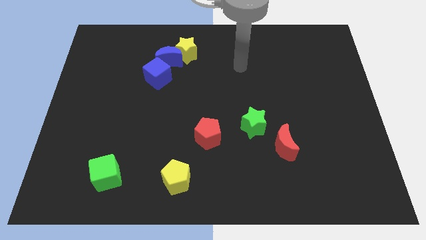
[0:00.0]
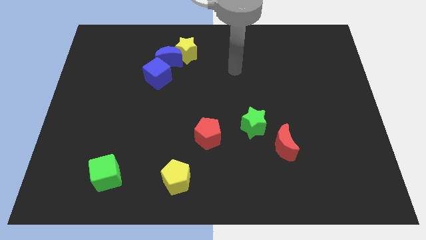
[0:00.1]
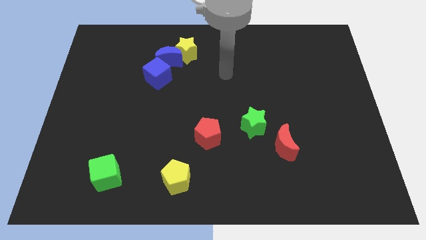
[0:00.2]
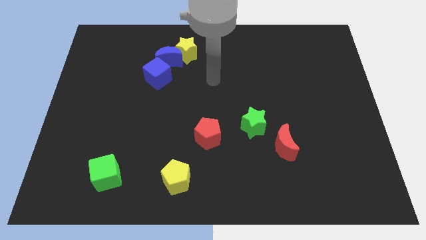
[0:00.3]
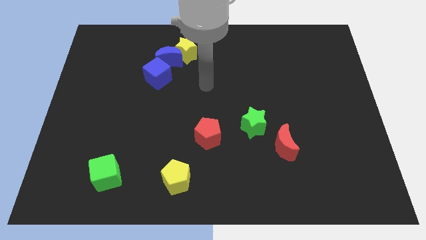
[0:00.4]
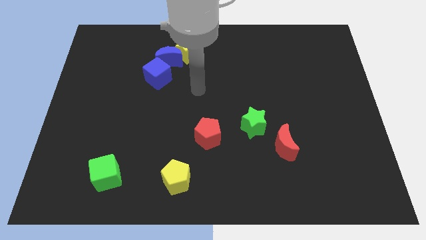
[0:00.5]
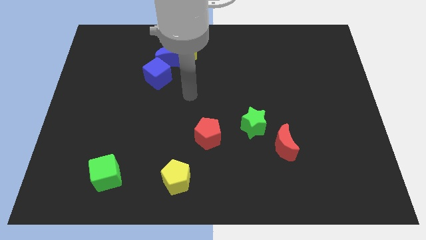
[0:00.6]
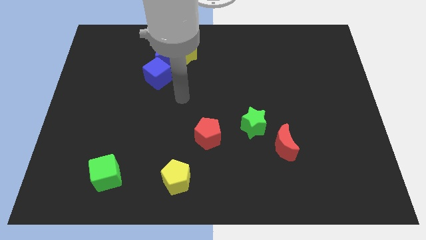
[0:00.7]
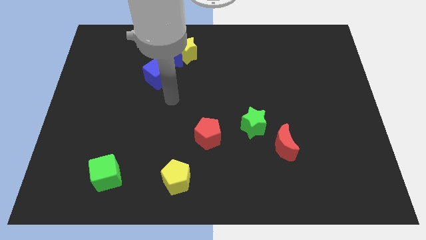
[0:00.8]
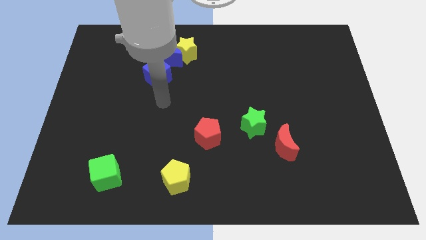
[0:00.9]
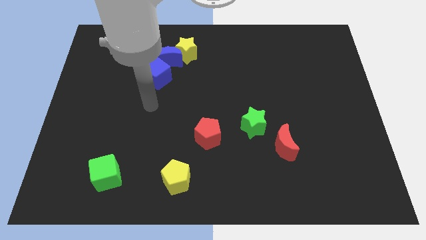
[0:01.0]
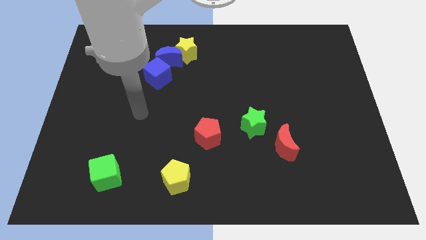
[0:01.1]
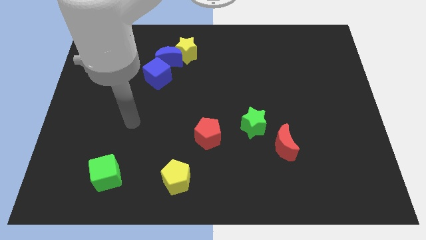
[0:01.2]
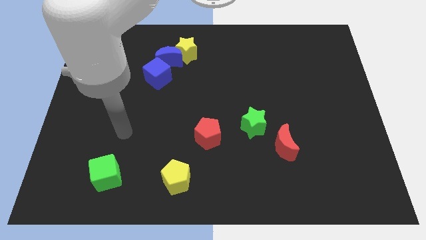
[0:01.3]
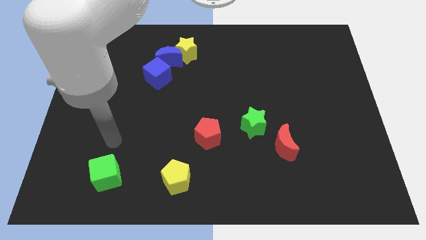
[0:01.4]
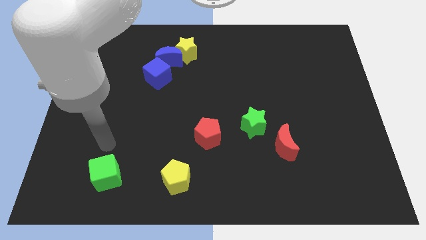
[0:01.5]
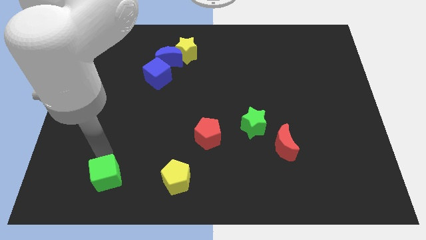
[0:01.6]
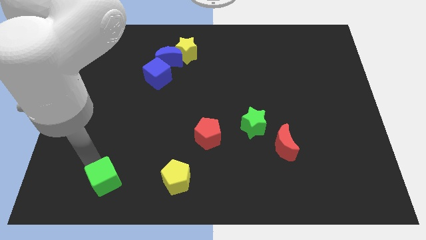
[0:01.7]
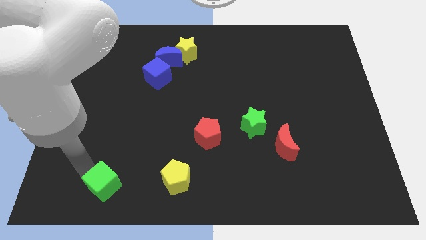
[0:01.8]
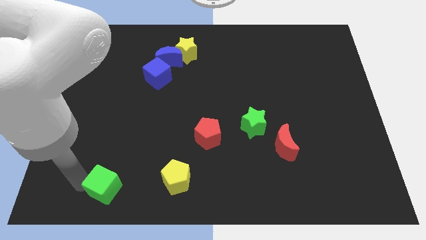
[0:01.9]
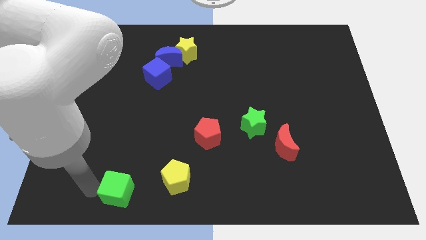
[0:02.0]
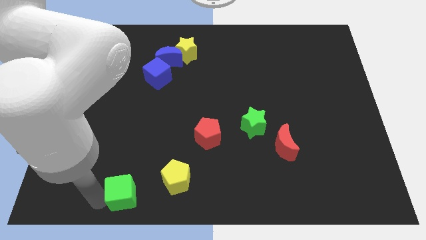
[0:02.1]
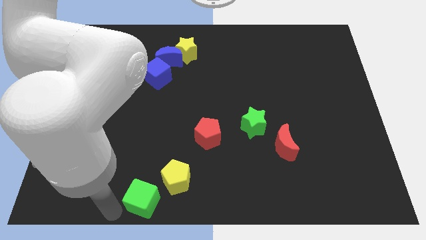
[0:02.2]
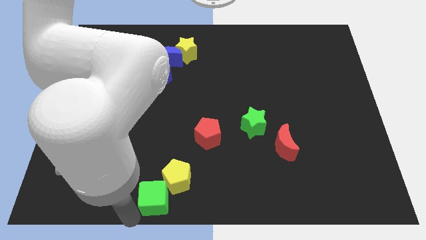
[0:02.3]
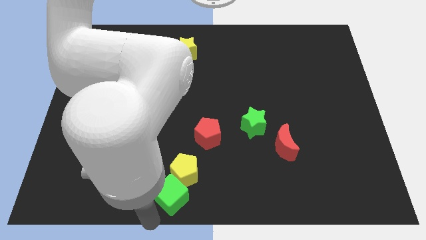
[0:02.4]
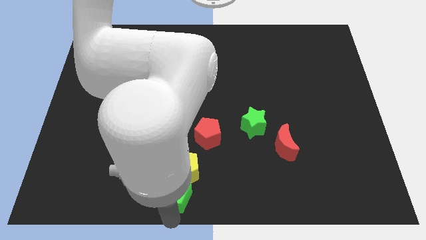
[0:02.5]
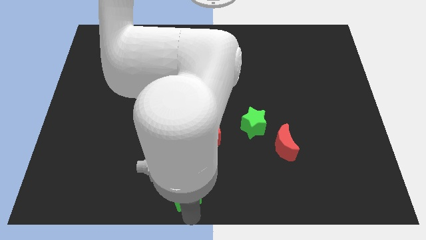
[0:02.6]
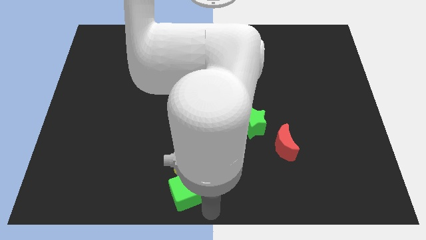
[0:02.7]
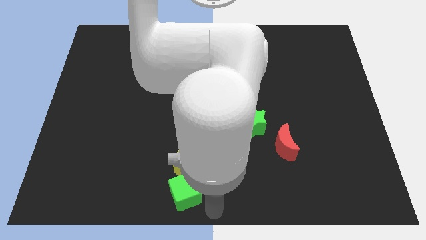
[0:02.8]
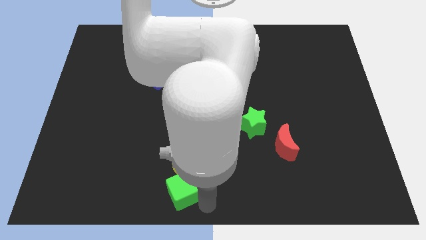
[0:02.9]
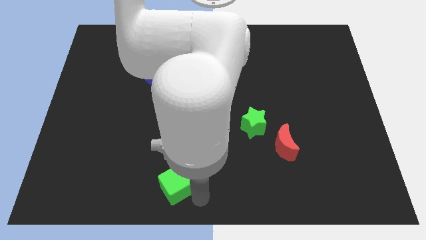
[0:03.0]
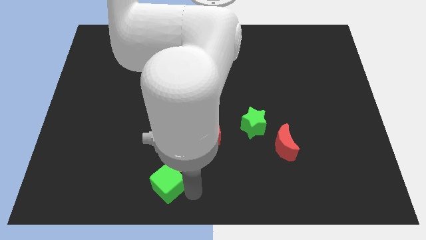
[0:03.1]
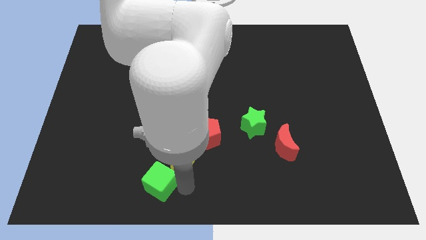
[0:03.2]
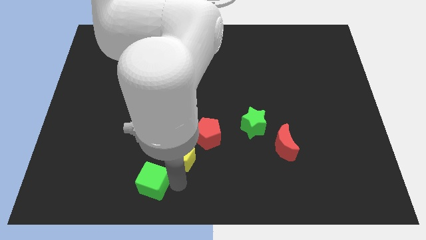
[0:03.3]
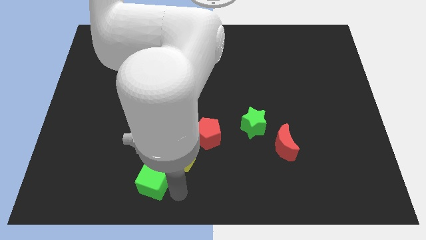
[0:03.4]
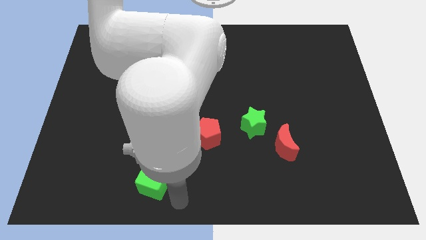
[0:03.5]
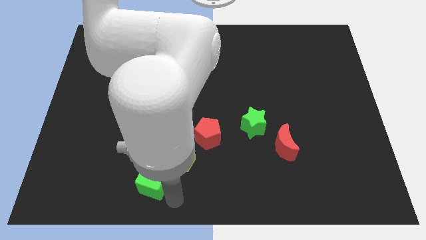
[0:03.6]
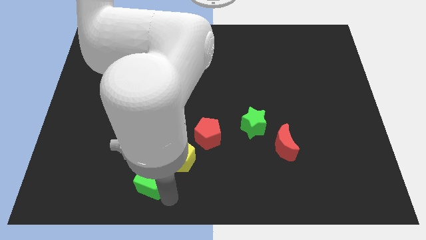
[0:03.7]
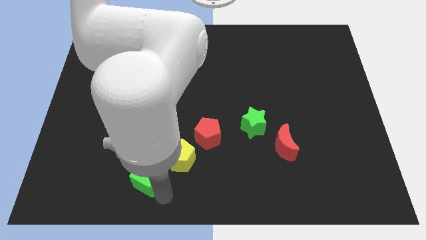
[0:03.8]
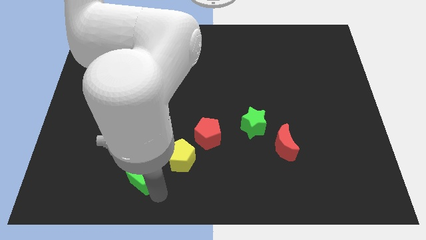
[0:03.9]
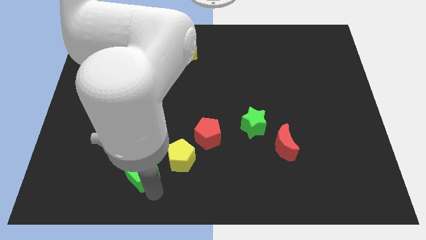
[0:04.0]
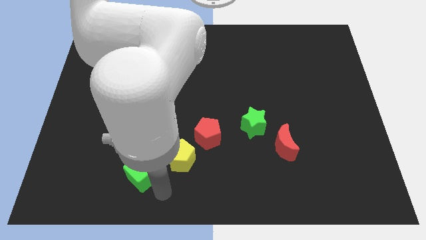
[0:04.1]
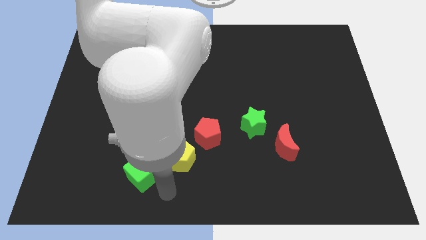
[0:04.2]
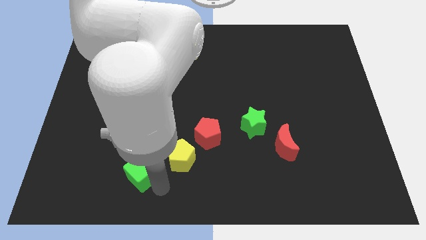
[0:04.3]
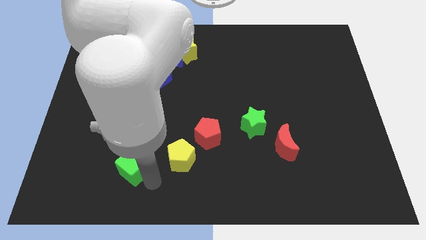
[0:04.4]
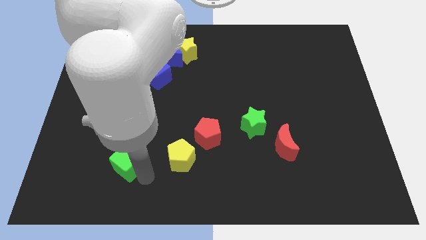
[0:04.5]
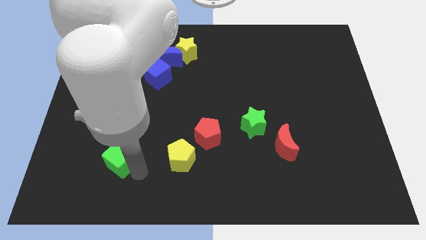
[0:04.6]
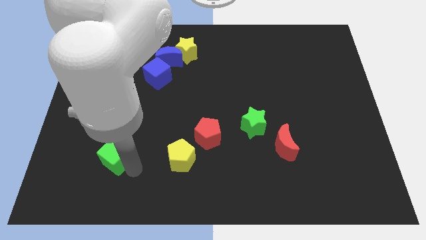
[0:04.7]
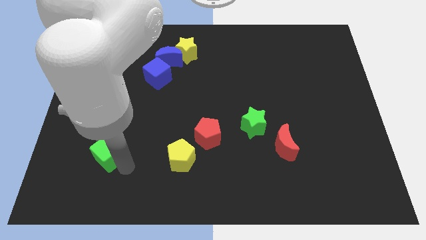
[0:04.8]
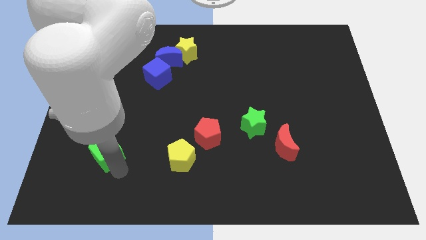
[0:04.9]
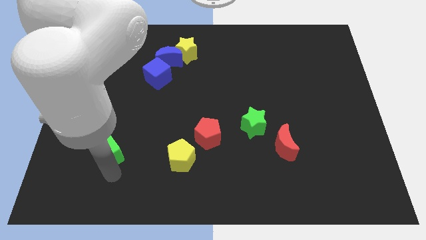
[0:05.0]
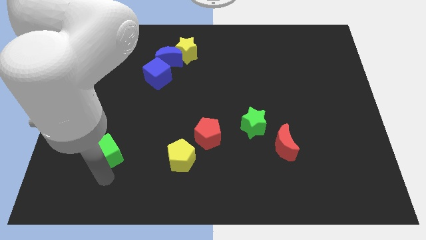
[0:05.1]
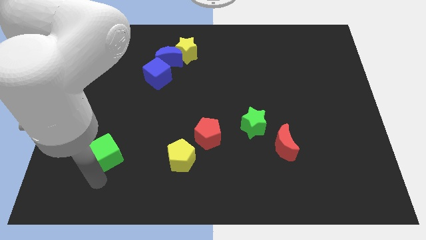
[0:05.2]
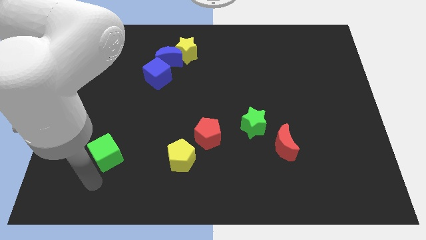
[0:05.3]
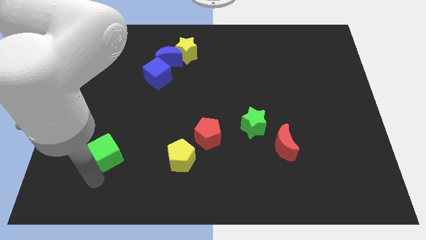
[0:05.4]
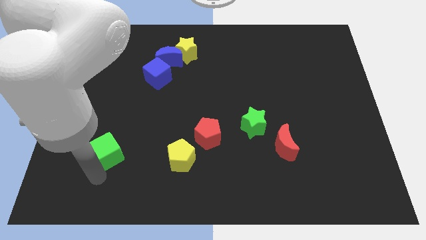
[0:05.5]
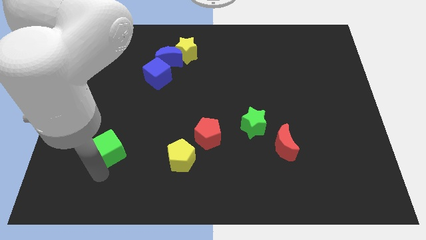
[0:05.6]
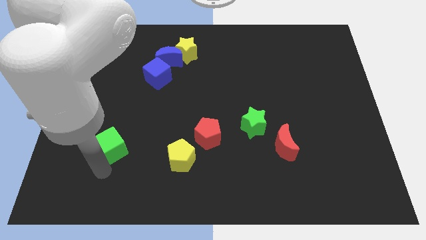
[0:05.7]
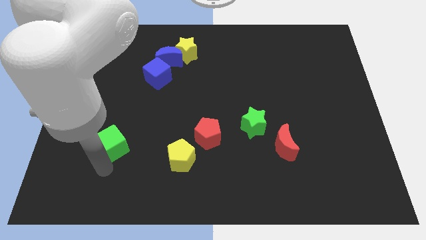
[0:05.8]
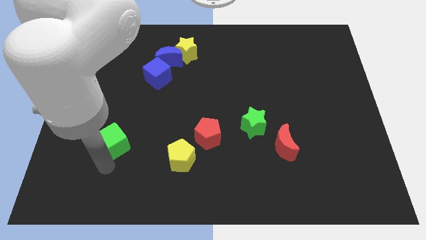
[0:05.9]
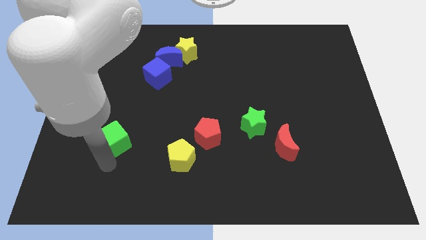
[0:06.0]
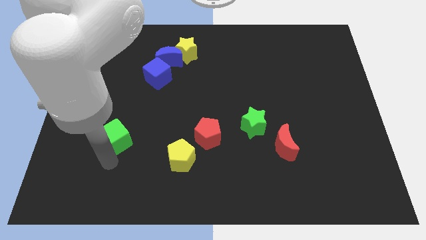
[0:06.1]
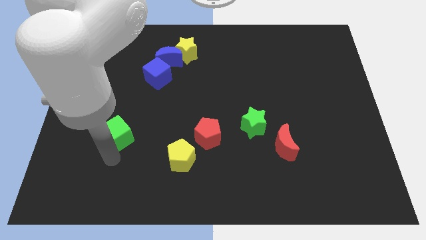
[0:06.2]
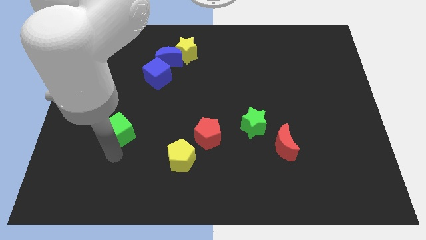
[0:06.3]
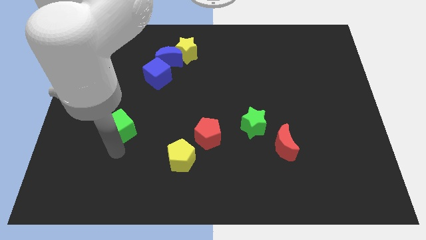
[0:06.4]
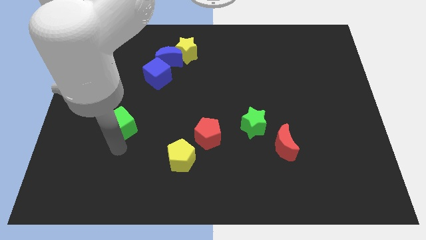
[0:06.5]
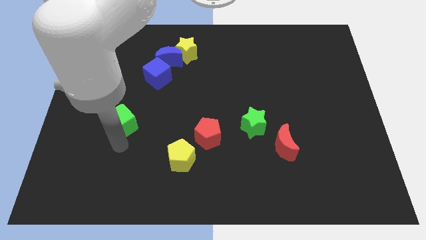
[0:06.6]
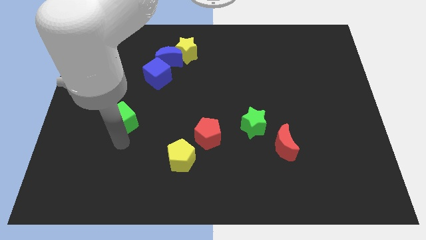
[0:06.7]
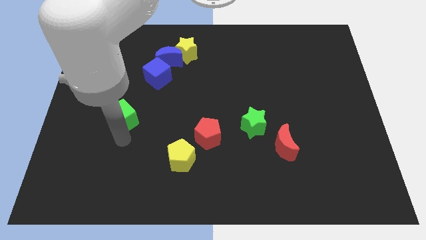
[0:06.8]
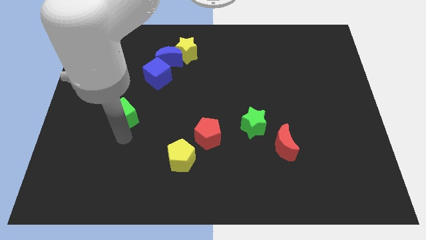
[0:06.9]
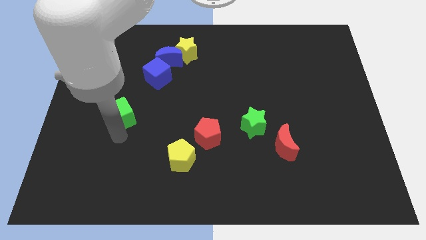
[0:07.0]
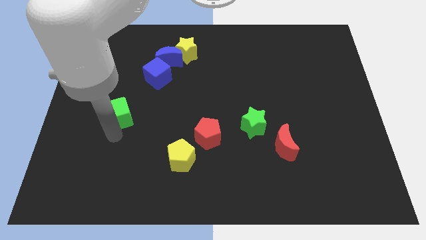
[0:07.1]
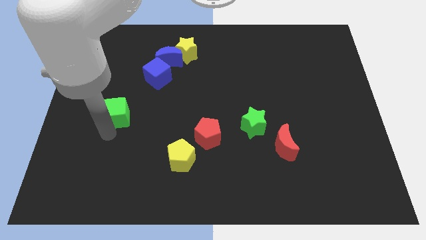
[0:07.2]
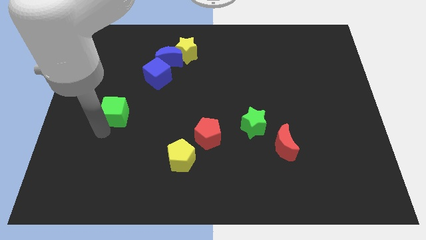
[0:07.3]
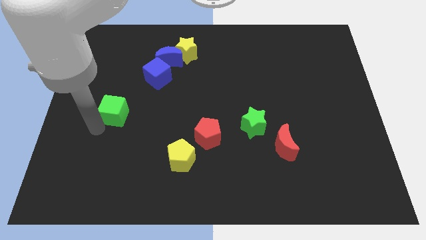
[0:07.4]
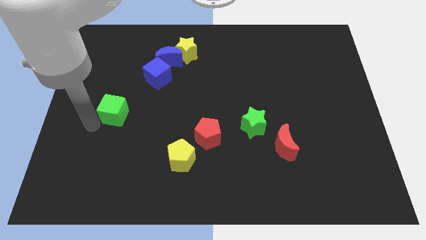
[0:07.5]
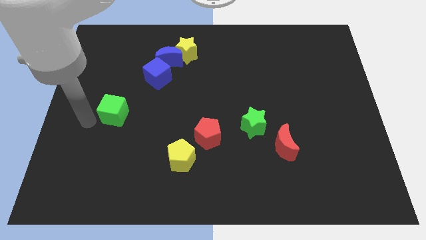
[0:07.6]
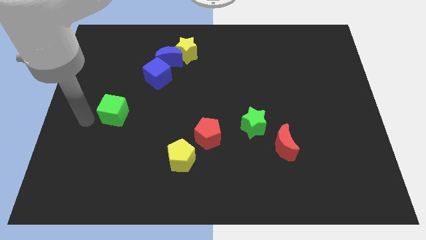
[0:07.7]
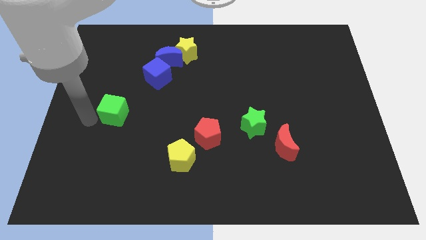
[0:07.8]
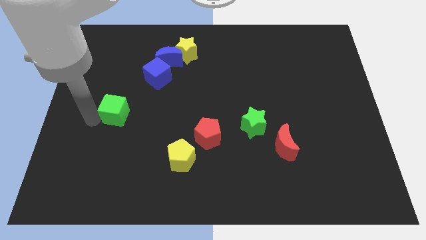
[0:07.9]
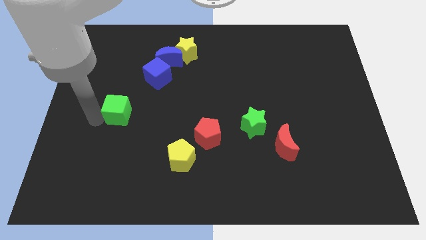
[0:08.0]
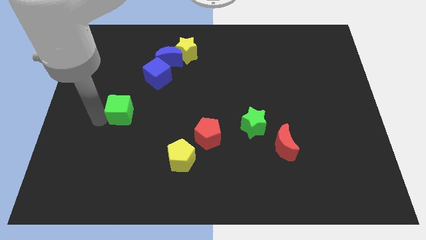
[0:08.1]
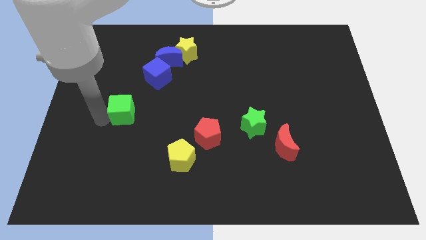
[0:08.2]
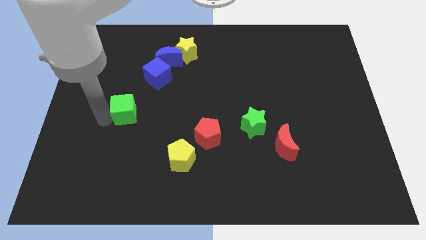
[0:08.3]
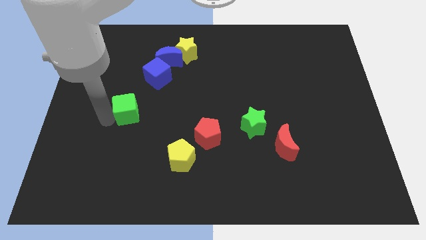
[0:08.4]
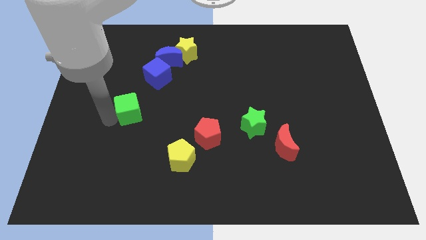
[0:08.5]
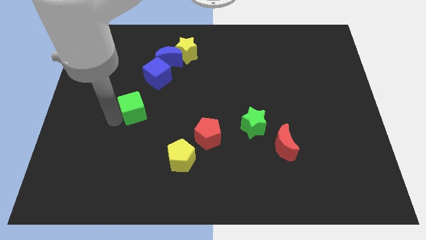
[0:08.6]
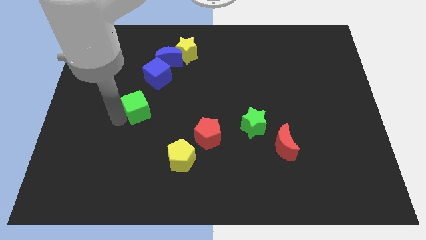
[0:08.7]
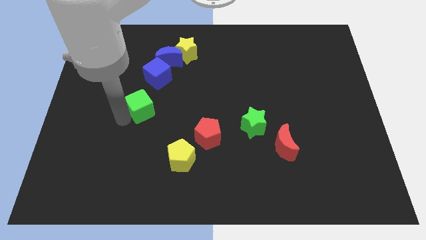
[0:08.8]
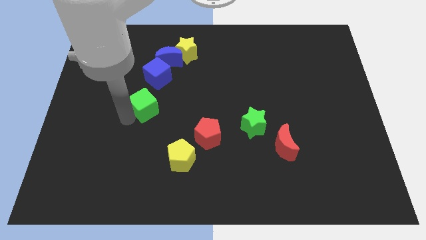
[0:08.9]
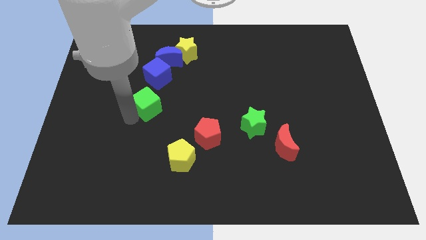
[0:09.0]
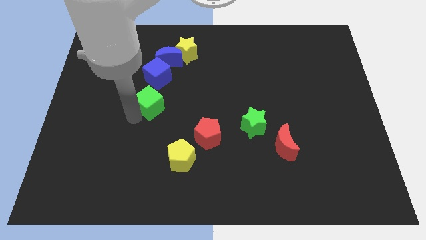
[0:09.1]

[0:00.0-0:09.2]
push the green cube to the bottom side of the blue moon
